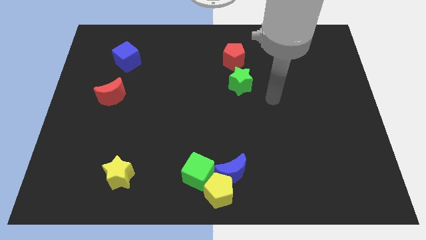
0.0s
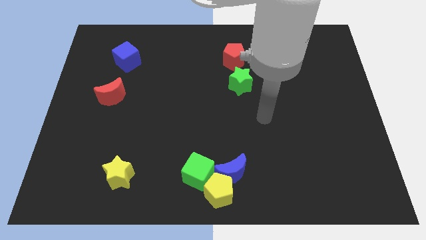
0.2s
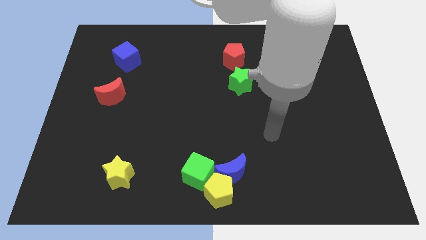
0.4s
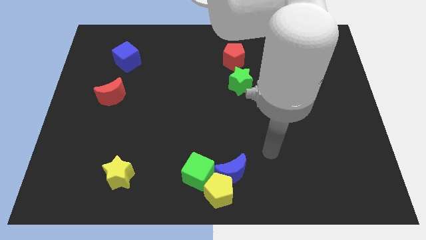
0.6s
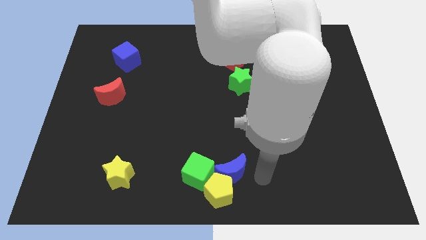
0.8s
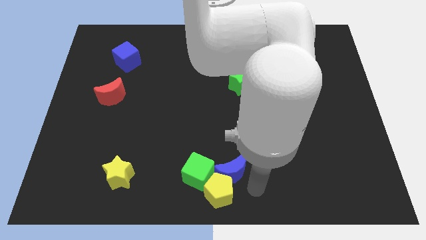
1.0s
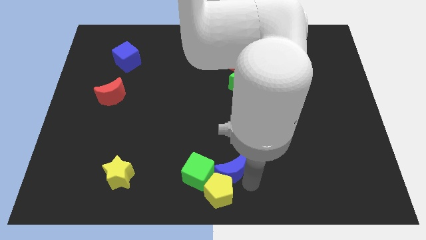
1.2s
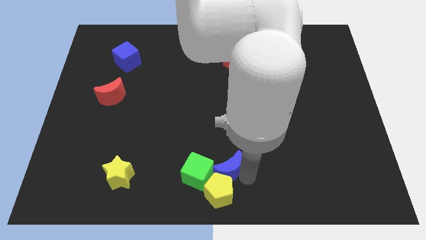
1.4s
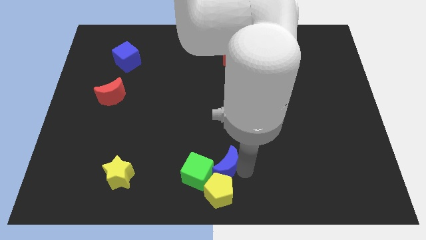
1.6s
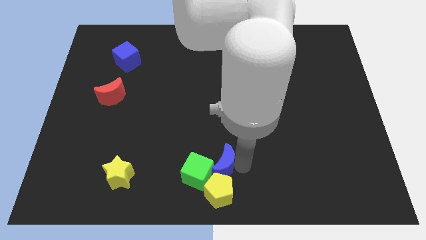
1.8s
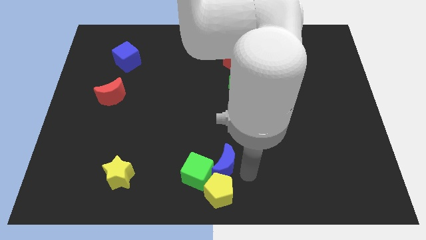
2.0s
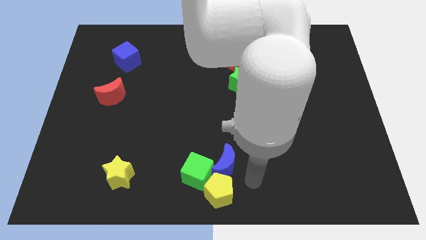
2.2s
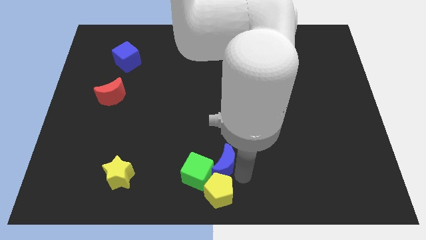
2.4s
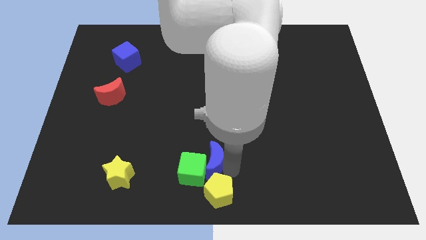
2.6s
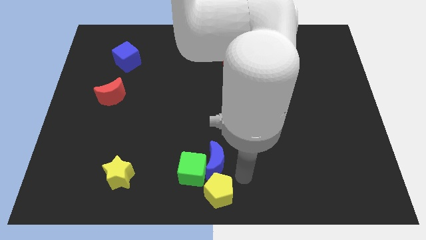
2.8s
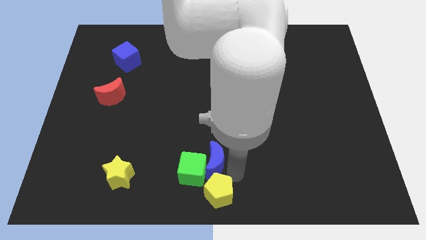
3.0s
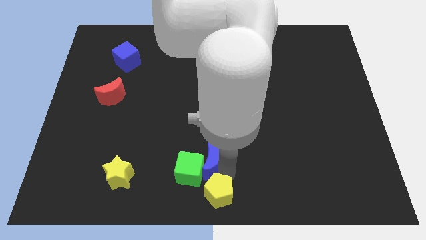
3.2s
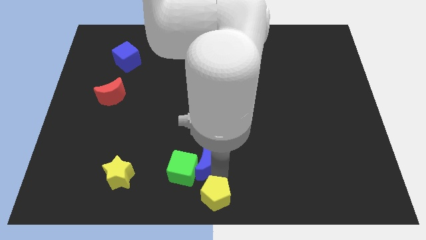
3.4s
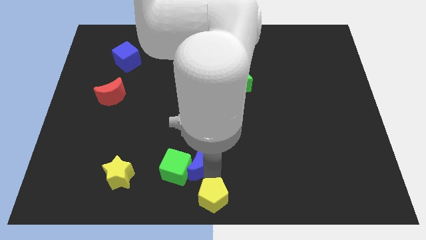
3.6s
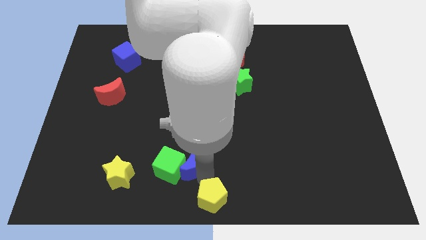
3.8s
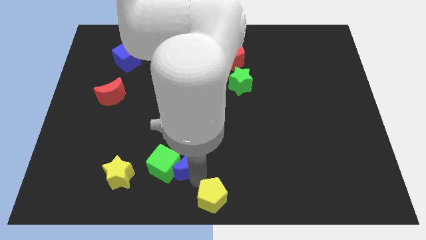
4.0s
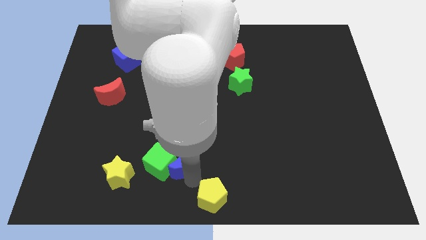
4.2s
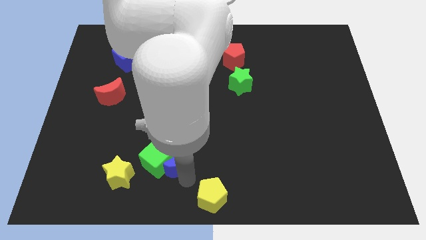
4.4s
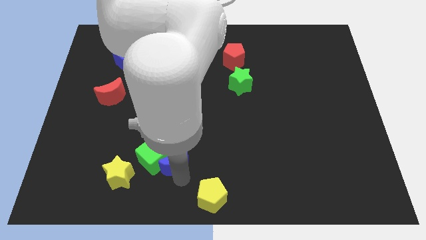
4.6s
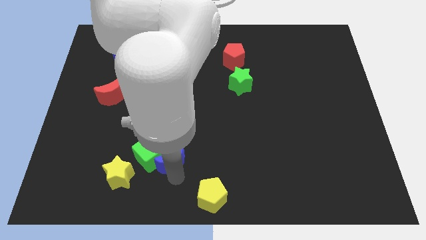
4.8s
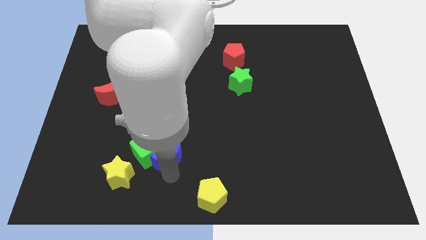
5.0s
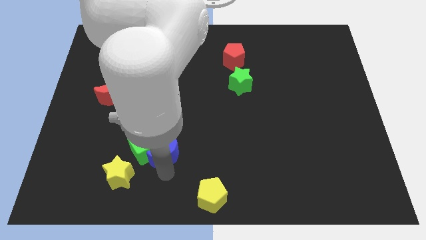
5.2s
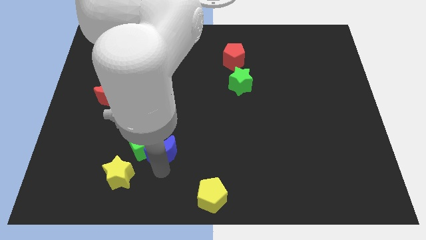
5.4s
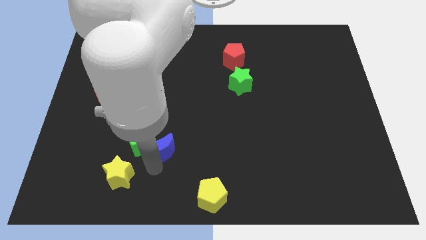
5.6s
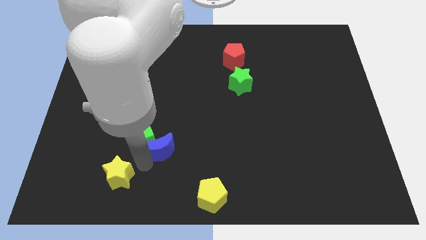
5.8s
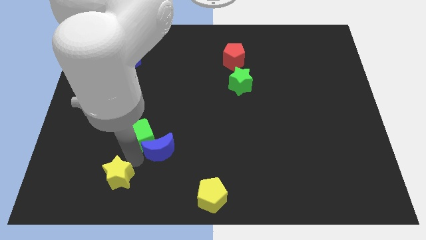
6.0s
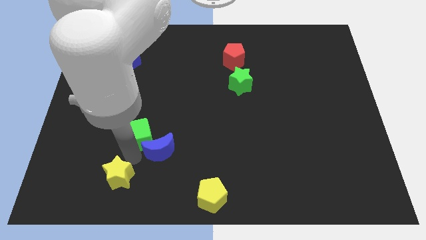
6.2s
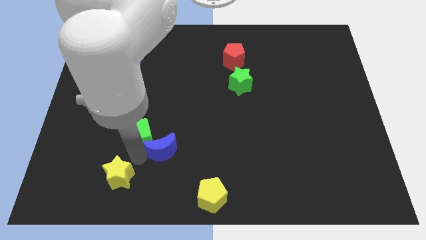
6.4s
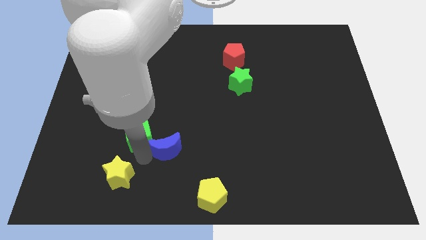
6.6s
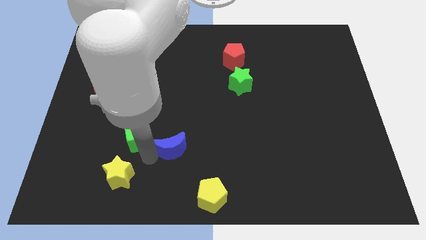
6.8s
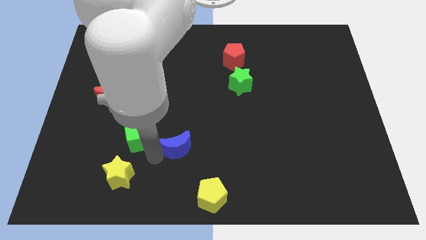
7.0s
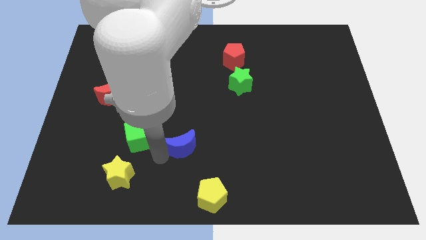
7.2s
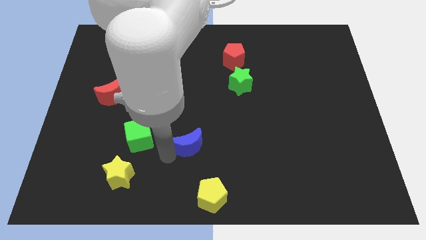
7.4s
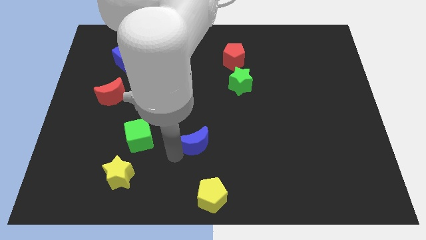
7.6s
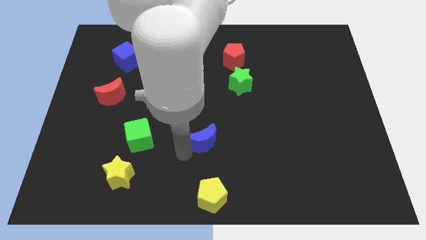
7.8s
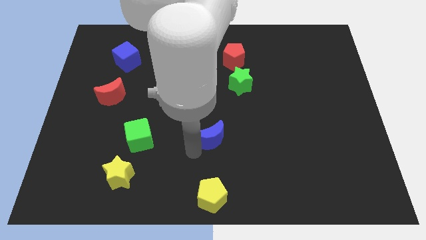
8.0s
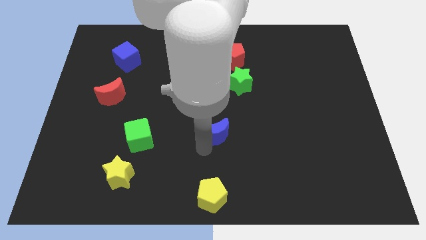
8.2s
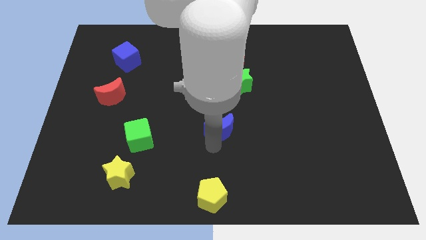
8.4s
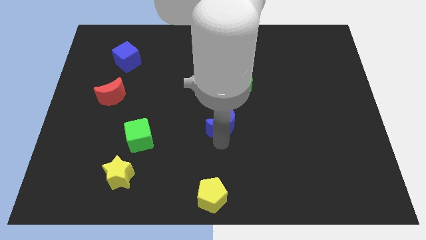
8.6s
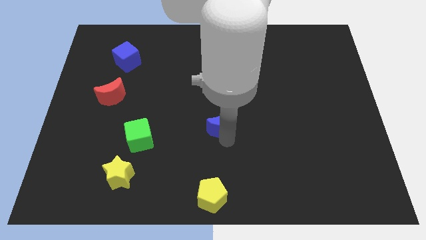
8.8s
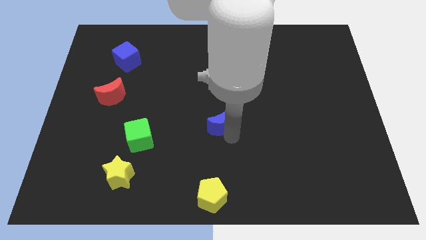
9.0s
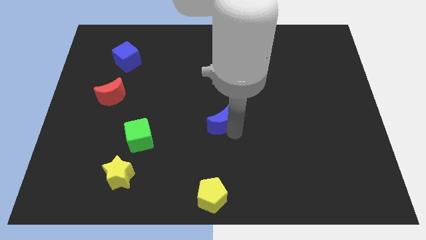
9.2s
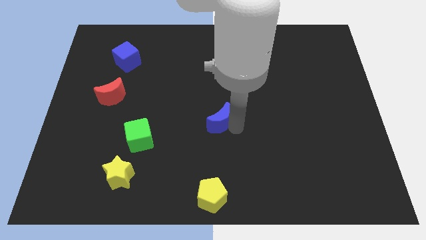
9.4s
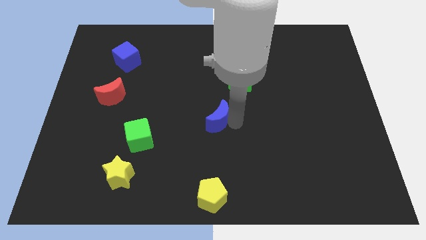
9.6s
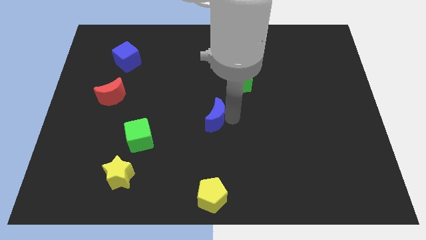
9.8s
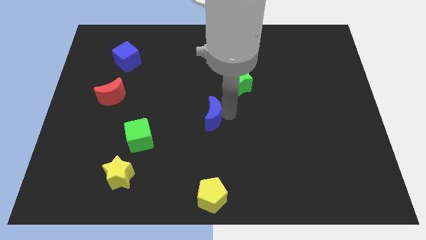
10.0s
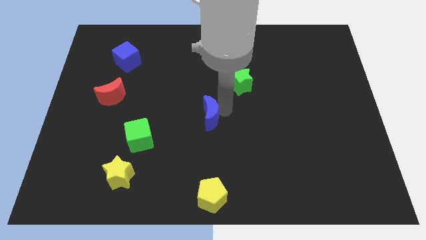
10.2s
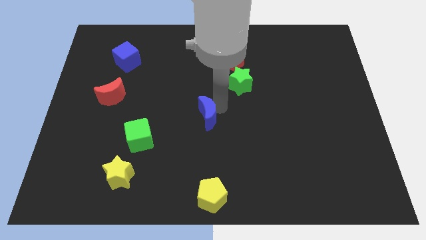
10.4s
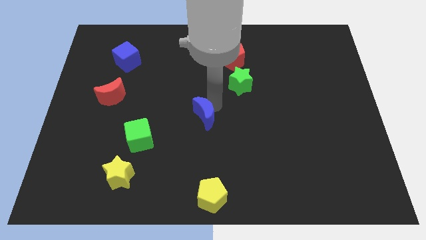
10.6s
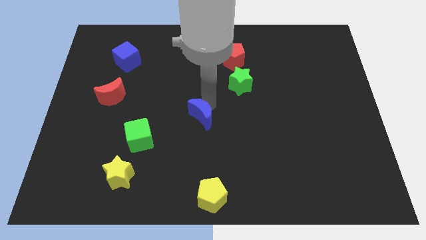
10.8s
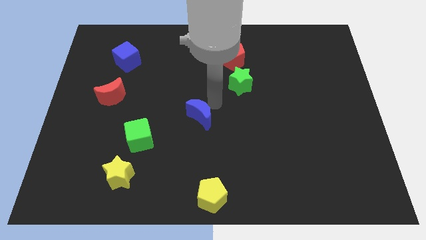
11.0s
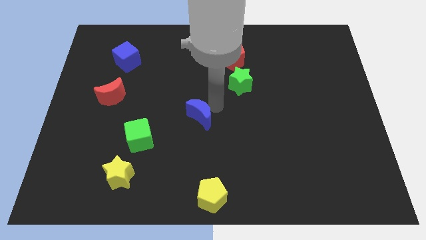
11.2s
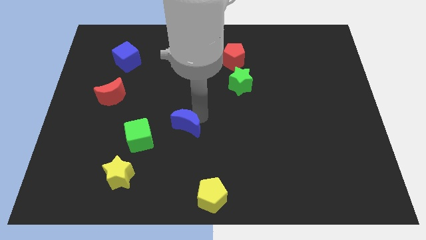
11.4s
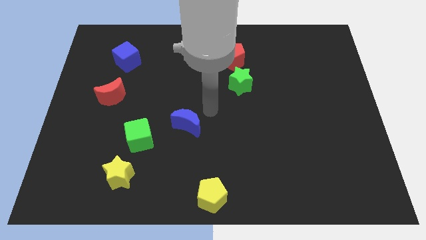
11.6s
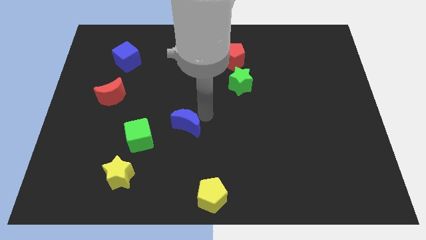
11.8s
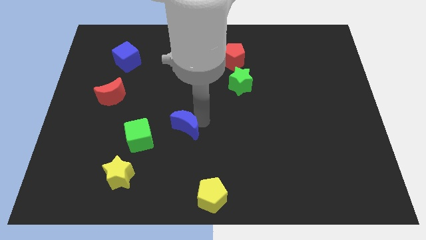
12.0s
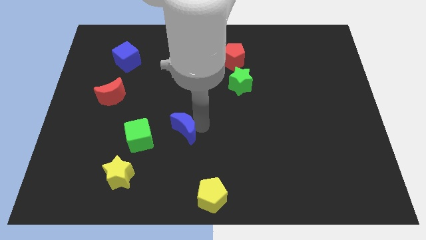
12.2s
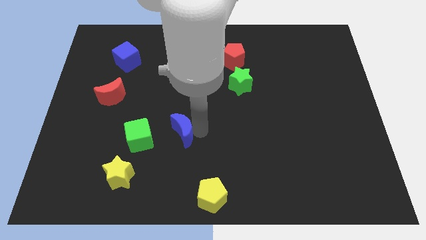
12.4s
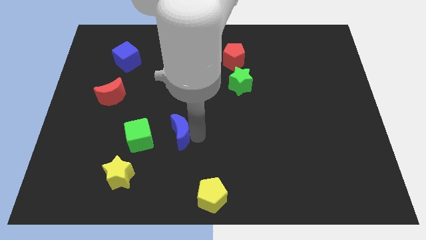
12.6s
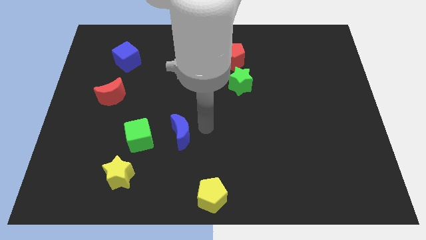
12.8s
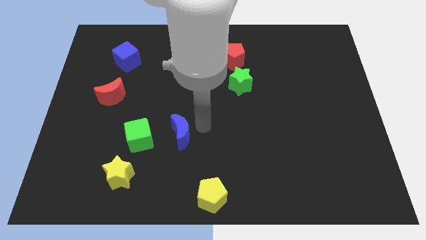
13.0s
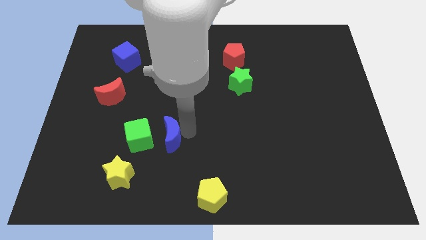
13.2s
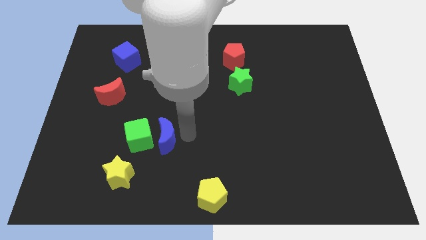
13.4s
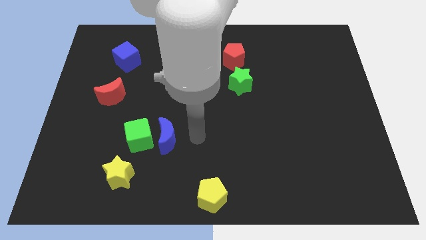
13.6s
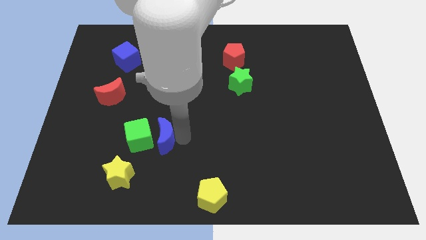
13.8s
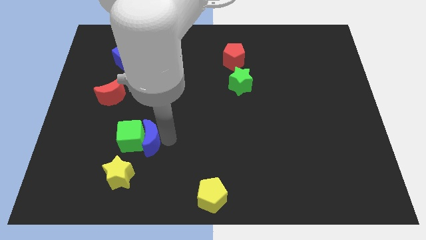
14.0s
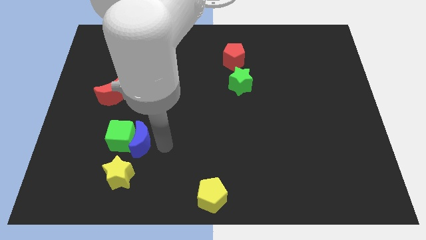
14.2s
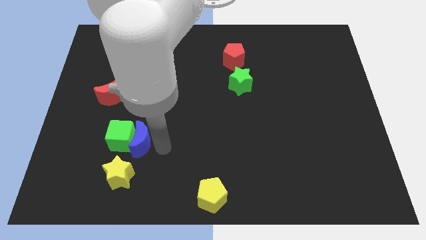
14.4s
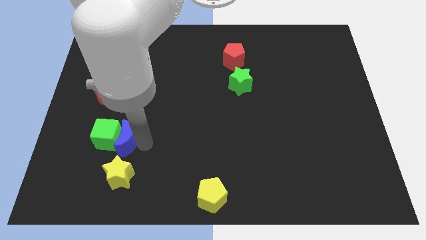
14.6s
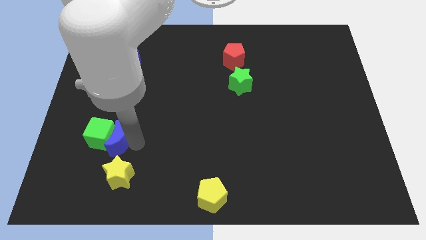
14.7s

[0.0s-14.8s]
move the blue moon below the red moon
